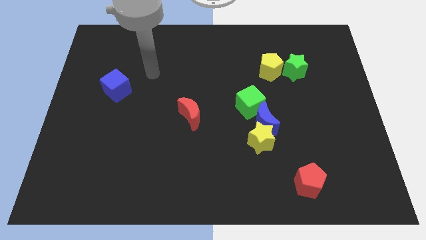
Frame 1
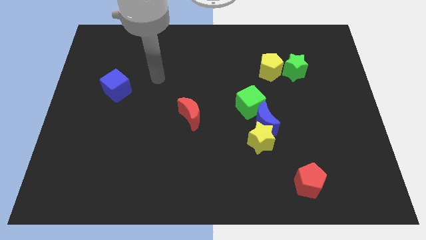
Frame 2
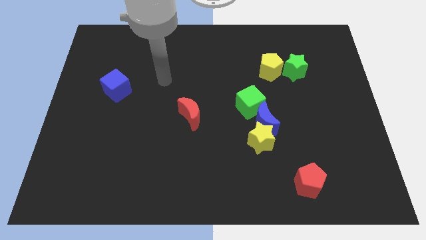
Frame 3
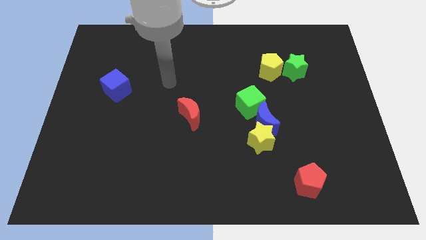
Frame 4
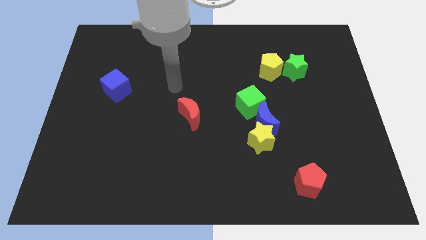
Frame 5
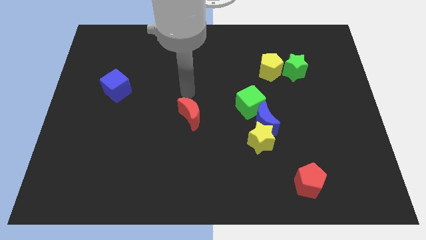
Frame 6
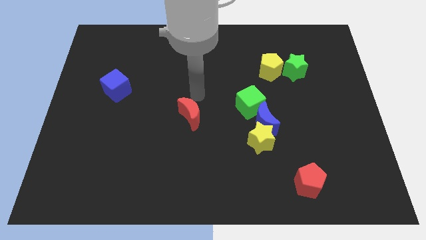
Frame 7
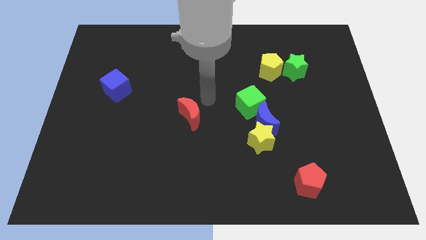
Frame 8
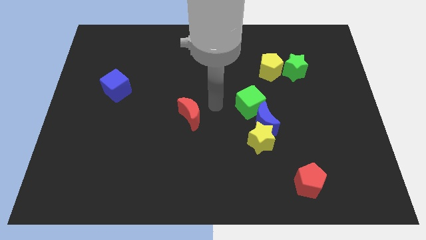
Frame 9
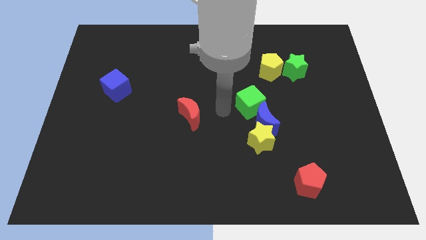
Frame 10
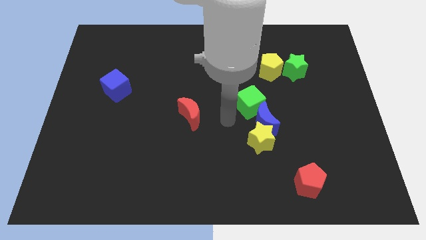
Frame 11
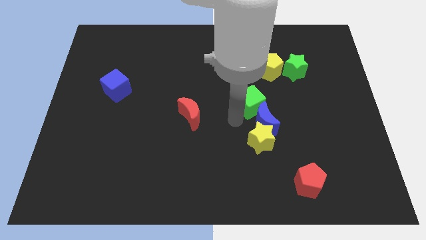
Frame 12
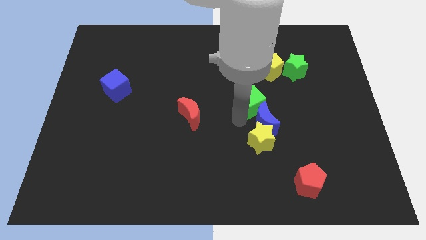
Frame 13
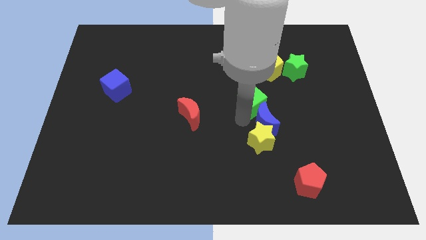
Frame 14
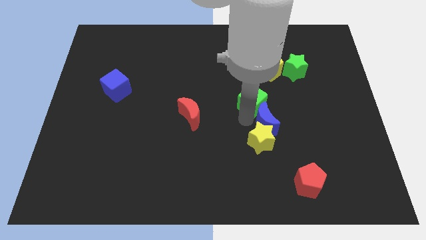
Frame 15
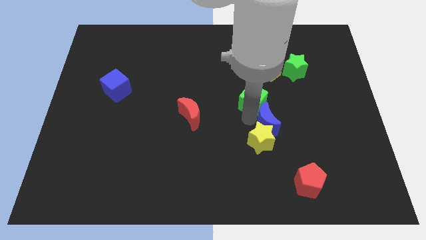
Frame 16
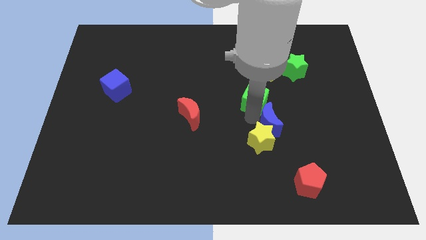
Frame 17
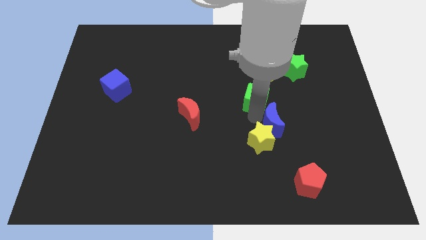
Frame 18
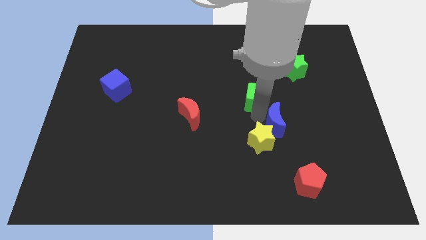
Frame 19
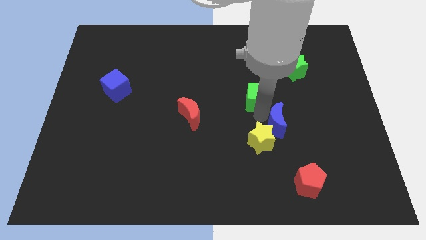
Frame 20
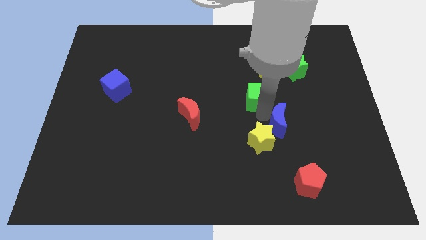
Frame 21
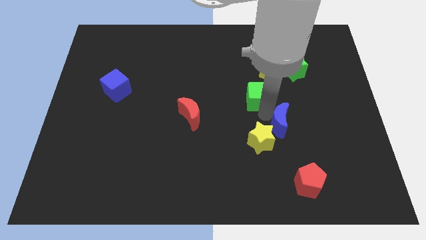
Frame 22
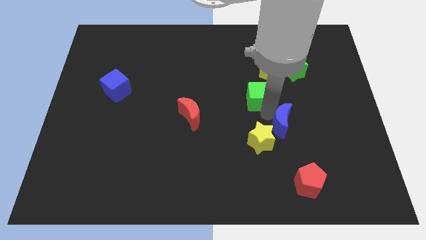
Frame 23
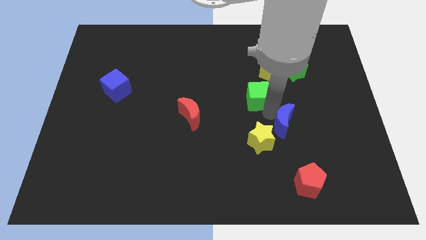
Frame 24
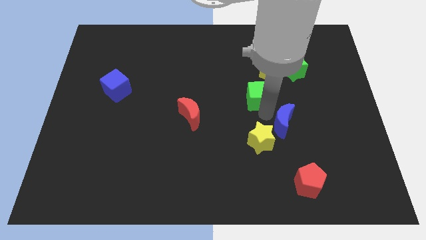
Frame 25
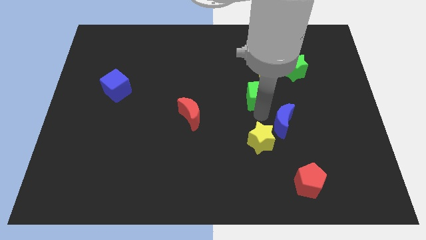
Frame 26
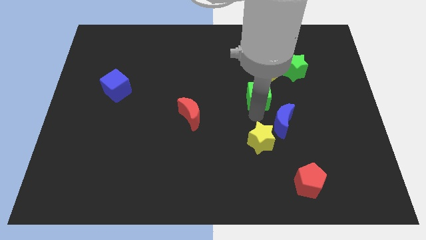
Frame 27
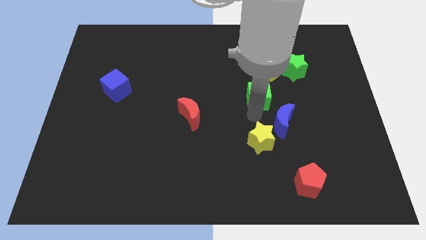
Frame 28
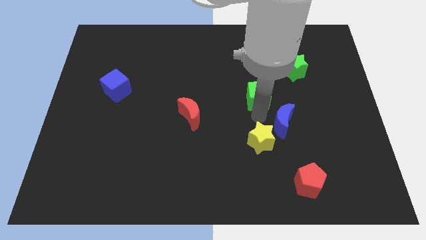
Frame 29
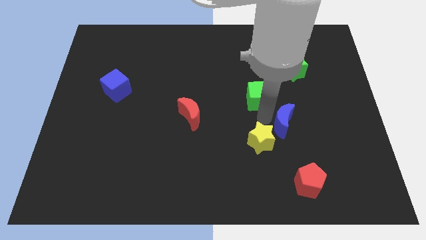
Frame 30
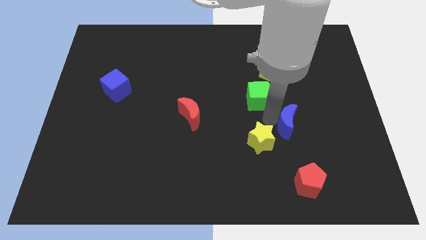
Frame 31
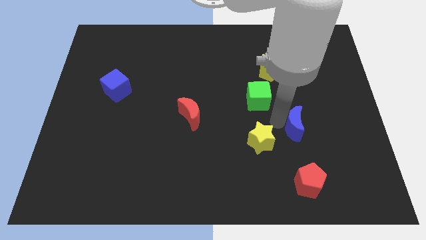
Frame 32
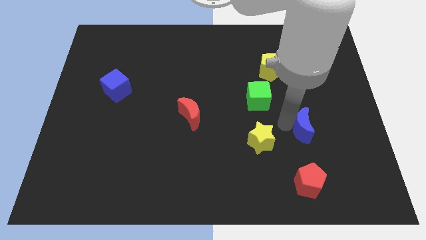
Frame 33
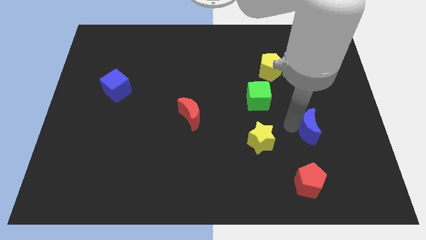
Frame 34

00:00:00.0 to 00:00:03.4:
separate the blue moon from the yellow star and green cube

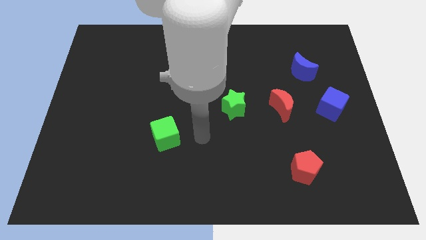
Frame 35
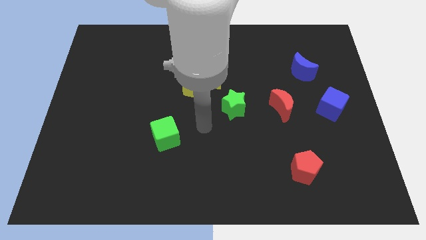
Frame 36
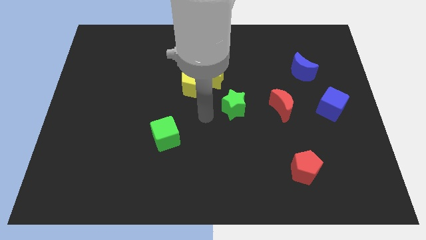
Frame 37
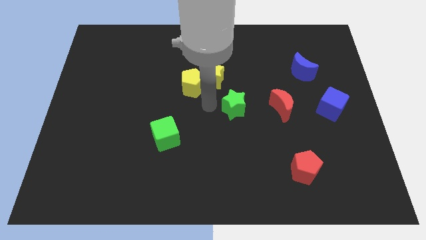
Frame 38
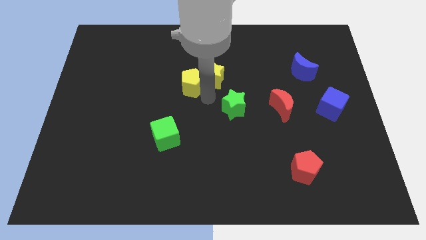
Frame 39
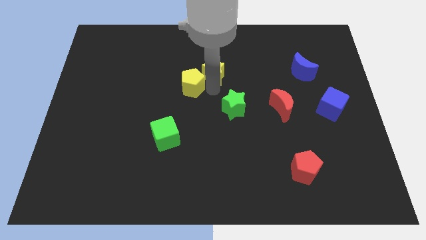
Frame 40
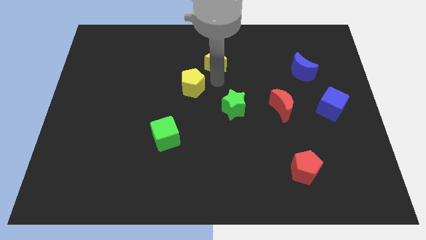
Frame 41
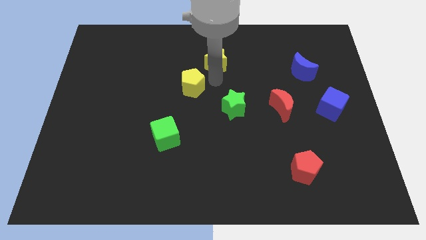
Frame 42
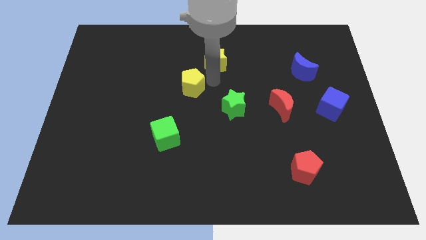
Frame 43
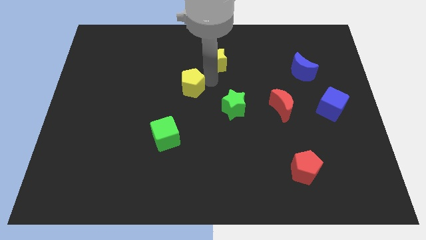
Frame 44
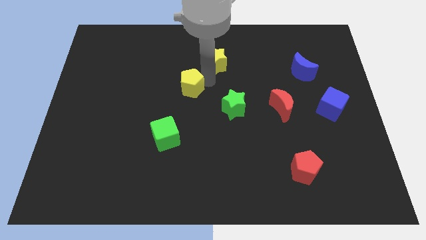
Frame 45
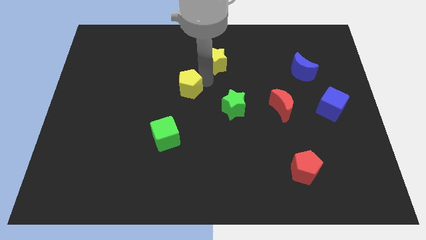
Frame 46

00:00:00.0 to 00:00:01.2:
separate the yellow pentagon from the yellow star

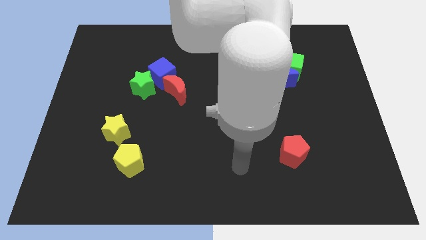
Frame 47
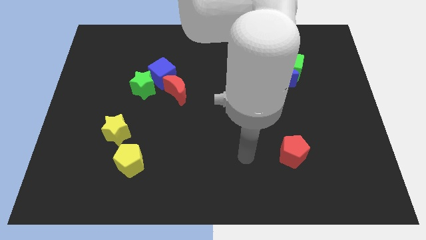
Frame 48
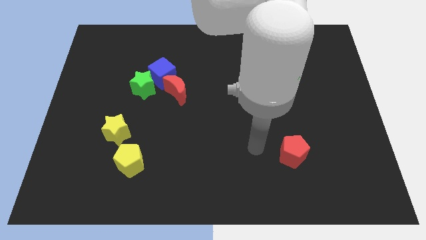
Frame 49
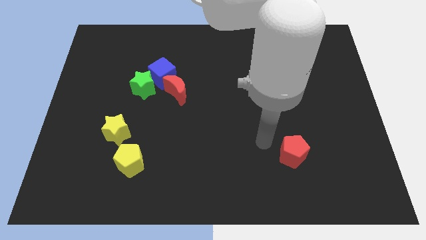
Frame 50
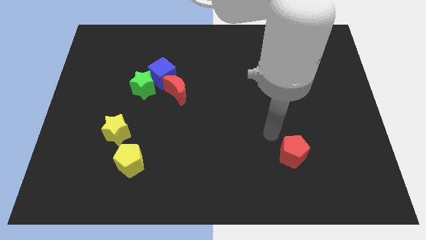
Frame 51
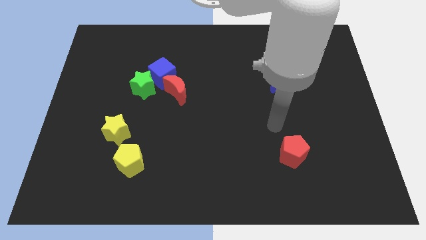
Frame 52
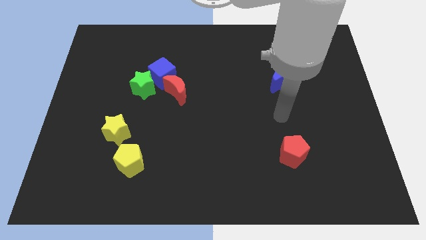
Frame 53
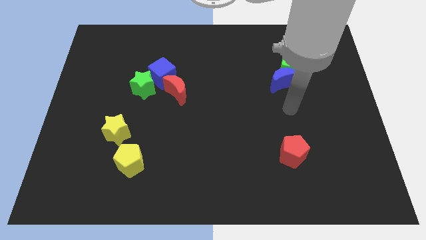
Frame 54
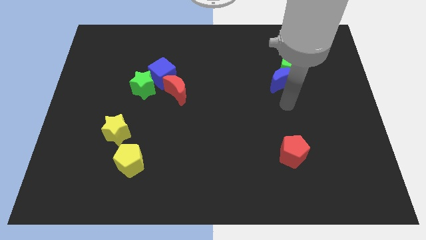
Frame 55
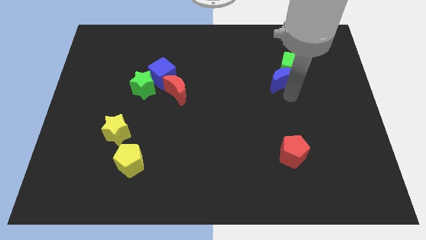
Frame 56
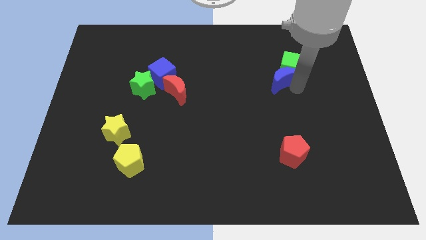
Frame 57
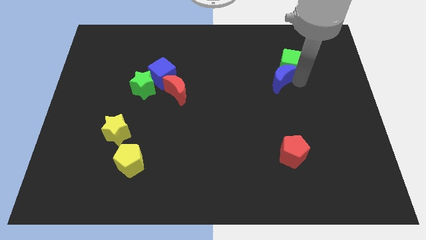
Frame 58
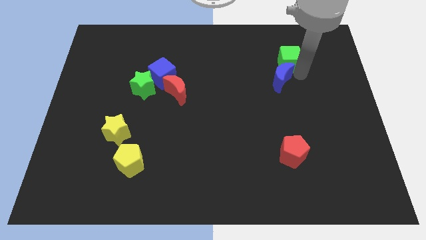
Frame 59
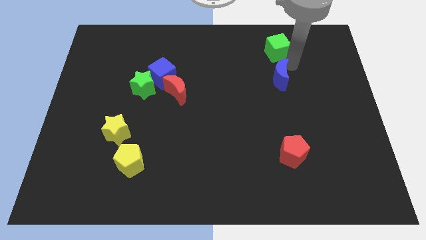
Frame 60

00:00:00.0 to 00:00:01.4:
pull the blue moon apart from the green cube

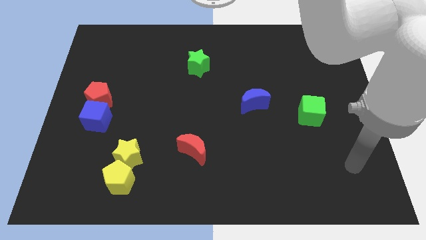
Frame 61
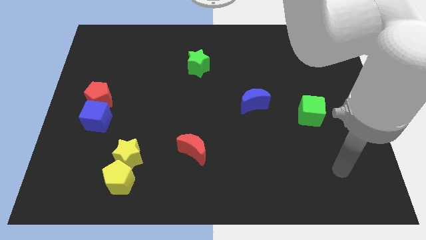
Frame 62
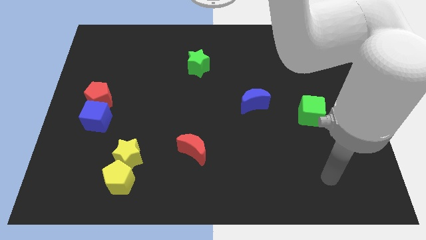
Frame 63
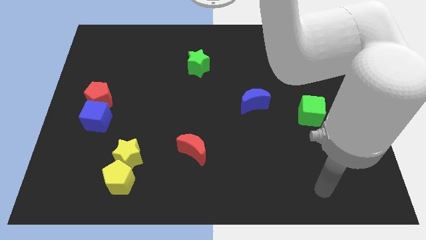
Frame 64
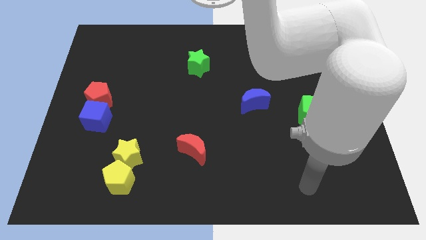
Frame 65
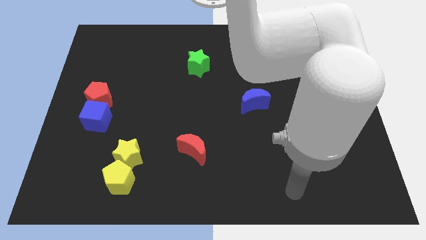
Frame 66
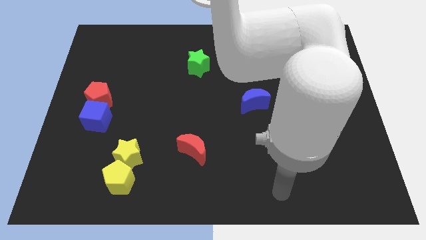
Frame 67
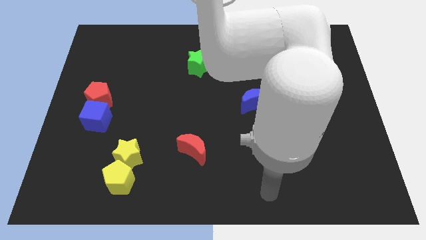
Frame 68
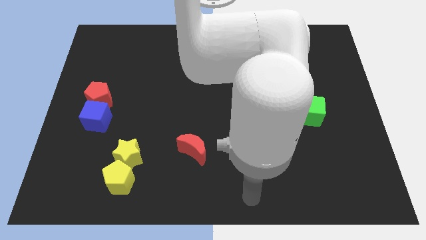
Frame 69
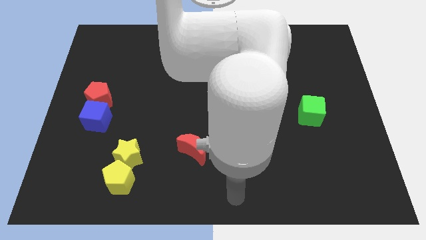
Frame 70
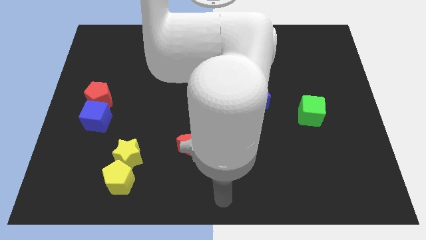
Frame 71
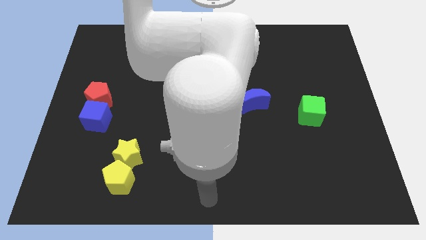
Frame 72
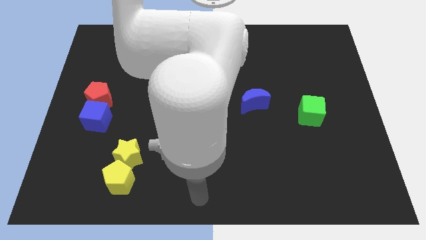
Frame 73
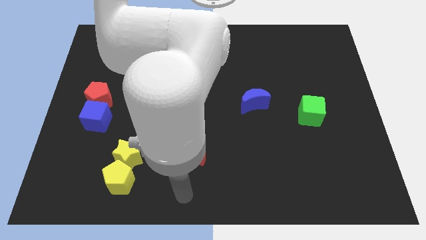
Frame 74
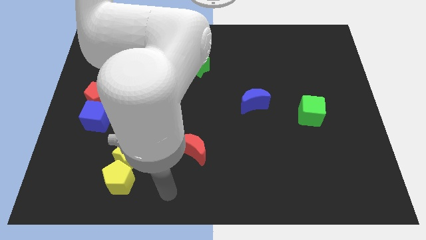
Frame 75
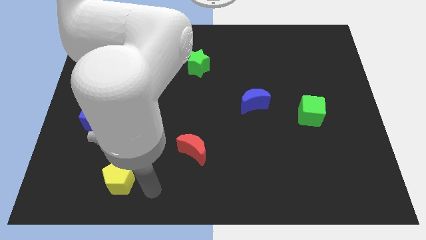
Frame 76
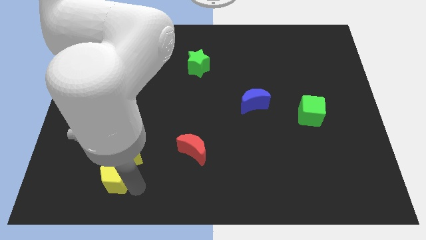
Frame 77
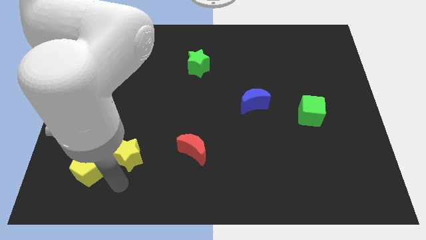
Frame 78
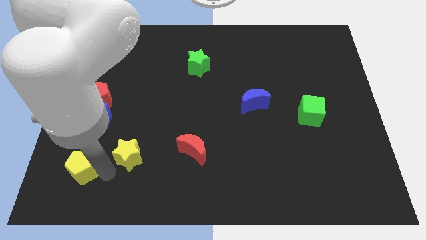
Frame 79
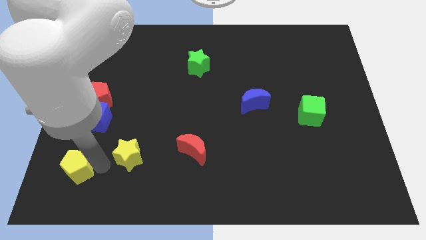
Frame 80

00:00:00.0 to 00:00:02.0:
move the yellow star away from the yellow pentagon

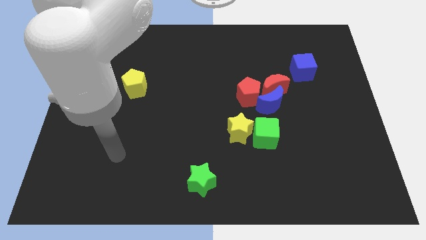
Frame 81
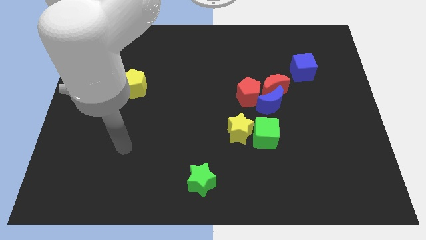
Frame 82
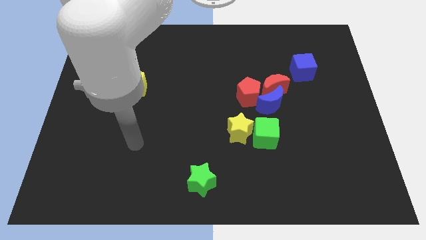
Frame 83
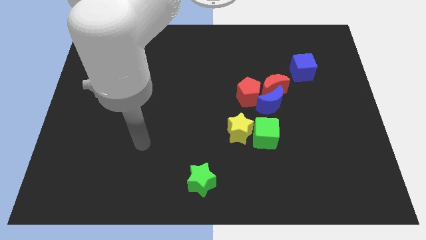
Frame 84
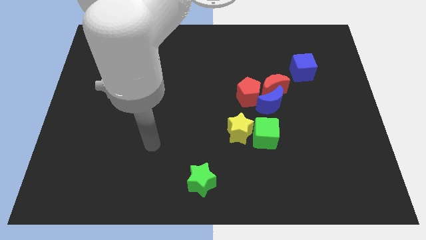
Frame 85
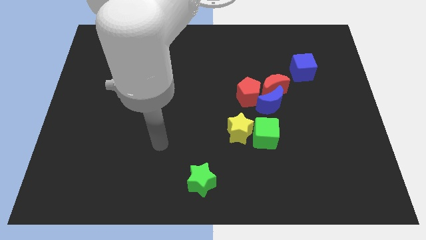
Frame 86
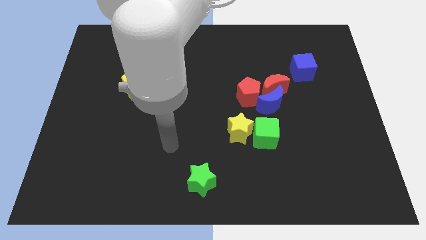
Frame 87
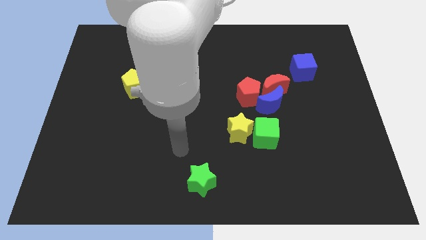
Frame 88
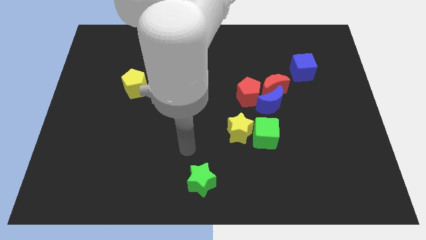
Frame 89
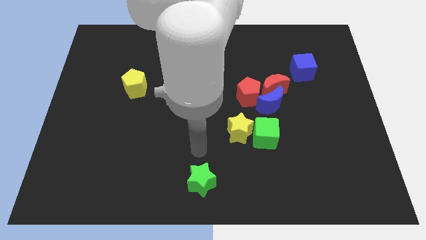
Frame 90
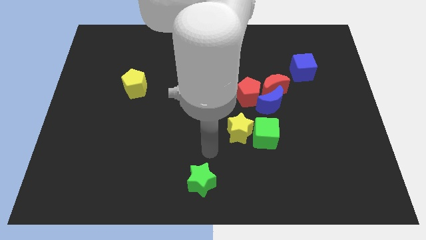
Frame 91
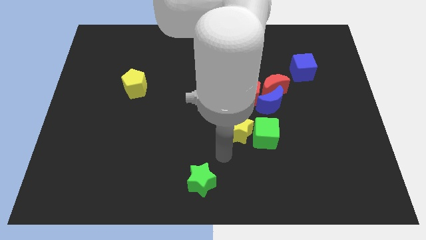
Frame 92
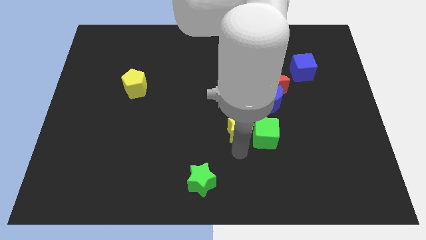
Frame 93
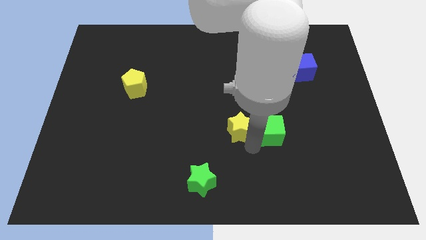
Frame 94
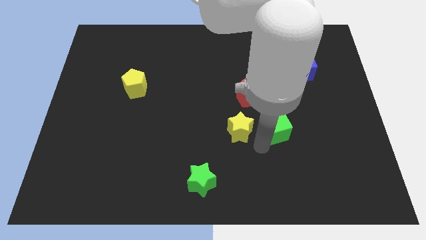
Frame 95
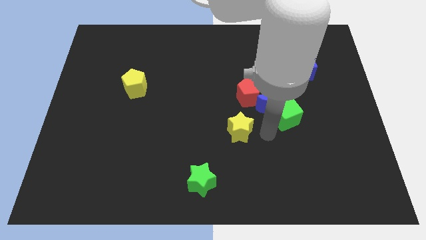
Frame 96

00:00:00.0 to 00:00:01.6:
pull the yellow star apart from the green cube
